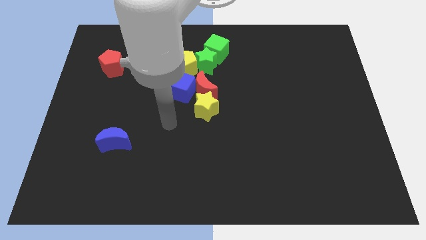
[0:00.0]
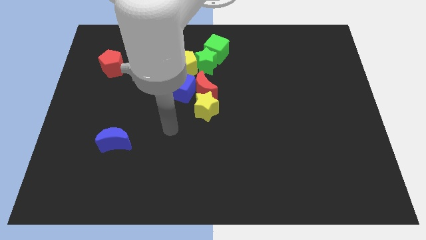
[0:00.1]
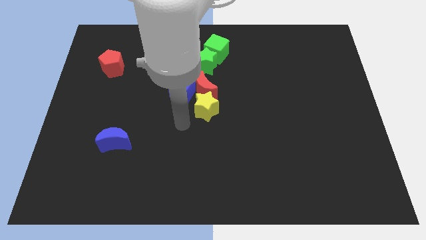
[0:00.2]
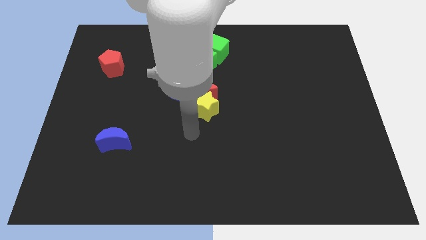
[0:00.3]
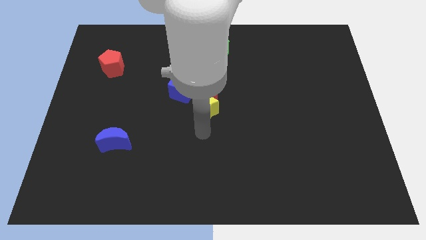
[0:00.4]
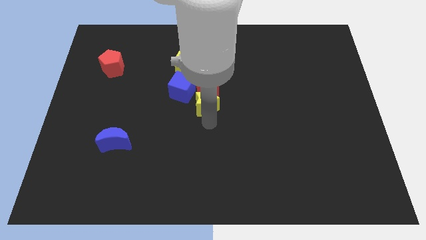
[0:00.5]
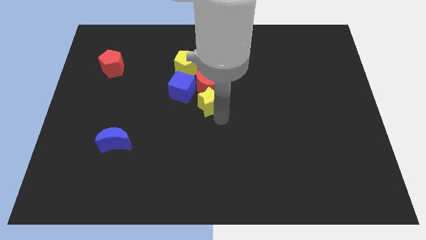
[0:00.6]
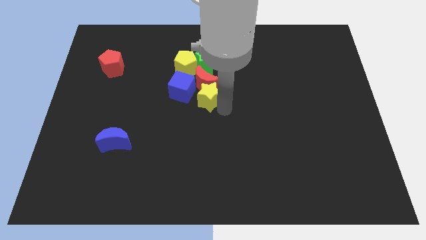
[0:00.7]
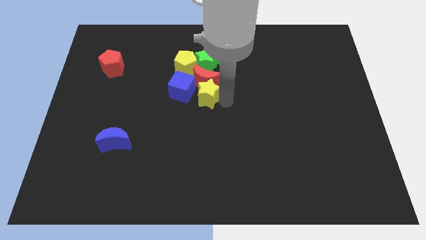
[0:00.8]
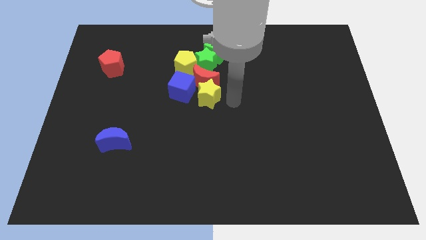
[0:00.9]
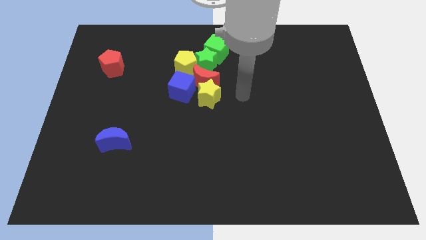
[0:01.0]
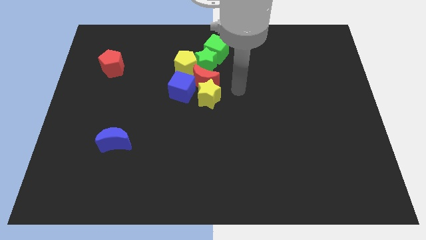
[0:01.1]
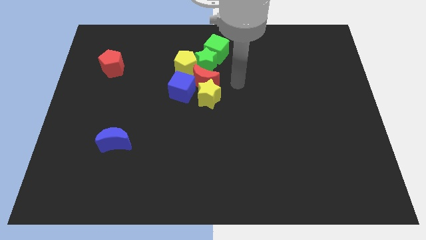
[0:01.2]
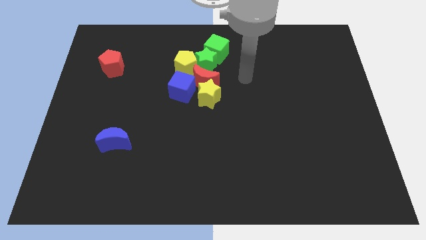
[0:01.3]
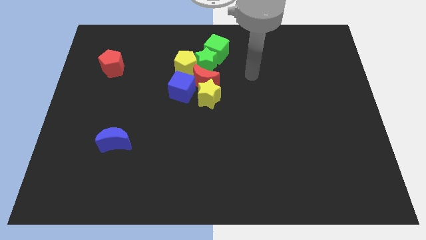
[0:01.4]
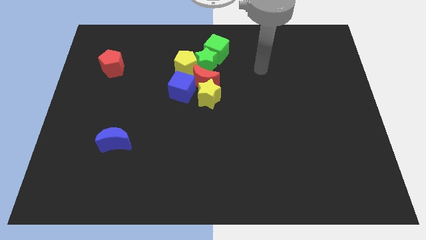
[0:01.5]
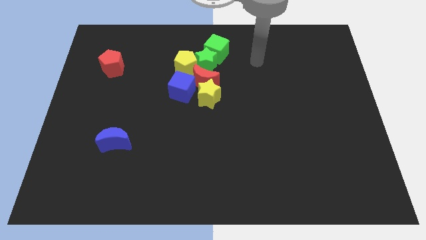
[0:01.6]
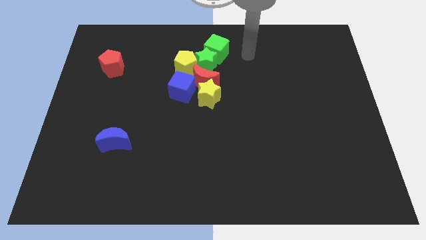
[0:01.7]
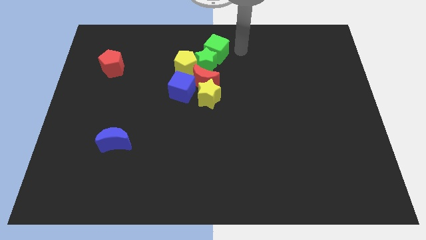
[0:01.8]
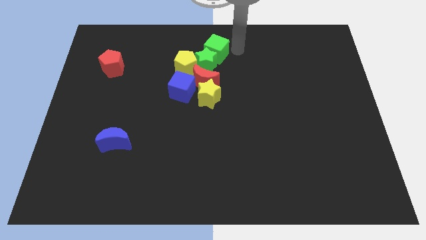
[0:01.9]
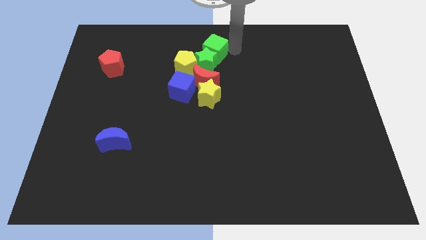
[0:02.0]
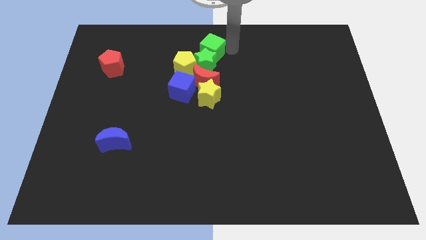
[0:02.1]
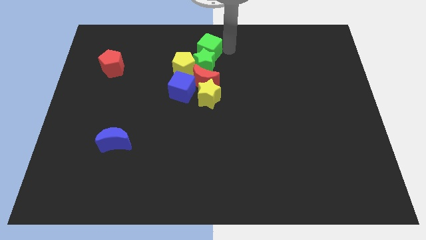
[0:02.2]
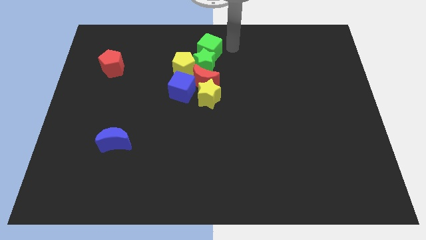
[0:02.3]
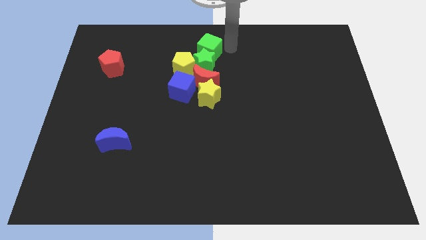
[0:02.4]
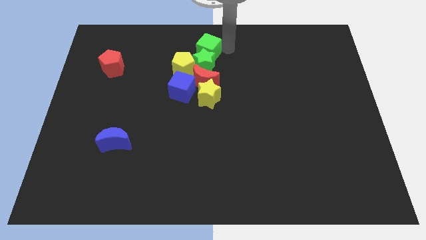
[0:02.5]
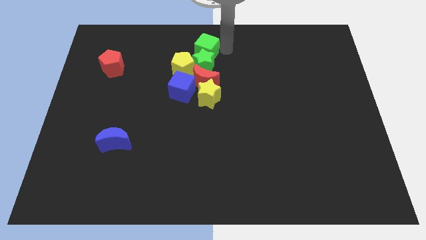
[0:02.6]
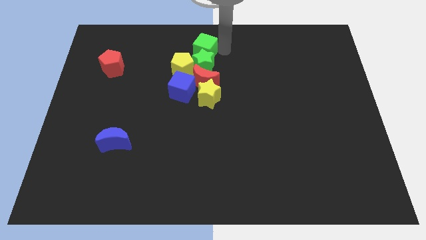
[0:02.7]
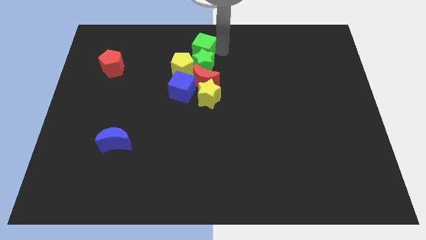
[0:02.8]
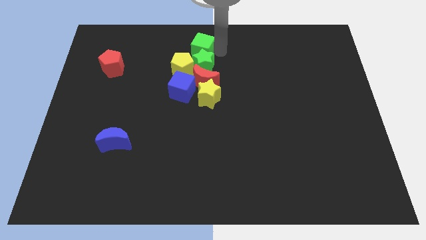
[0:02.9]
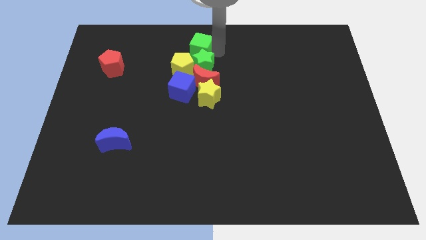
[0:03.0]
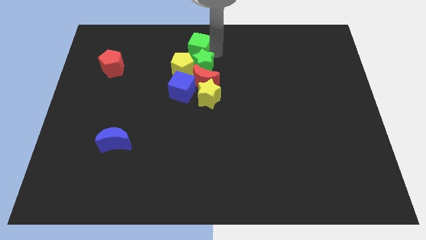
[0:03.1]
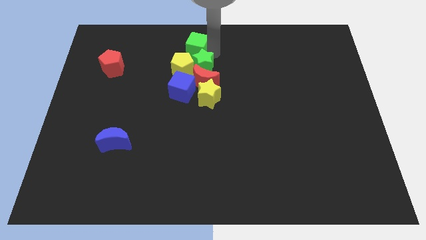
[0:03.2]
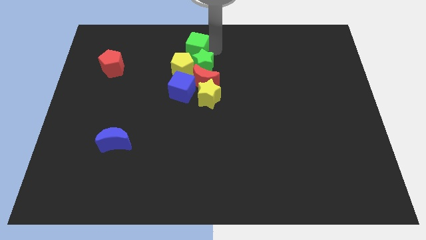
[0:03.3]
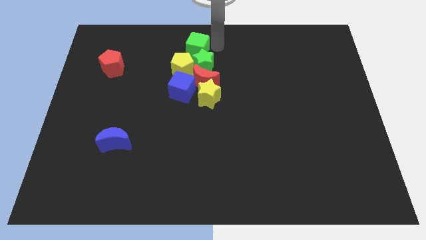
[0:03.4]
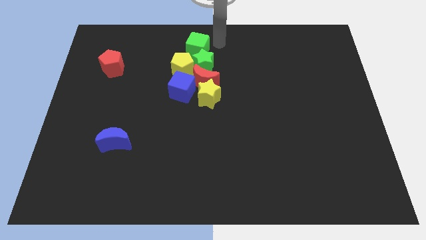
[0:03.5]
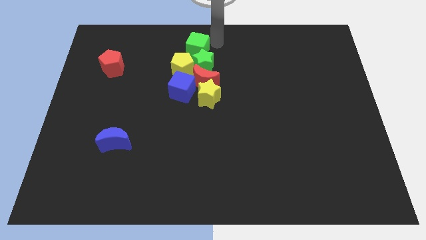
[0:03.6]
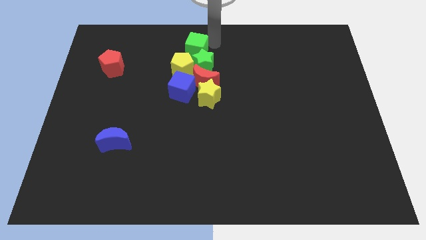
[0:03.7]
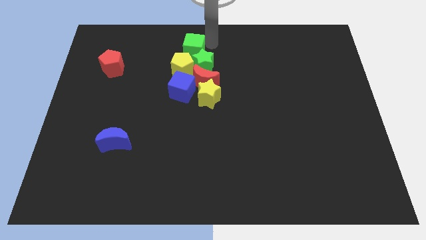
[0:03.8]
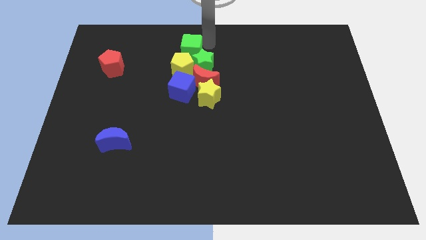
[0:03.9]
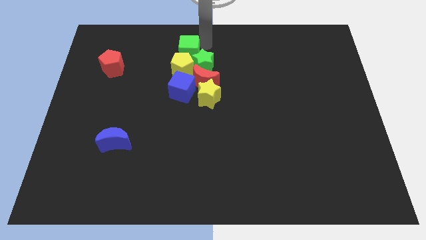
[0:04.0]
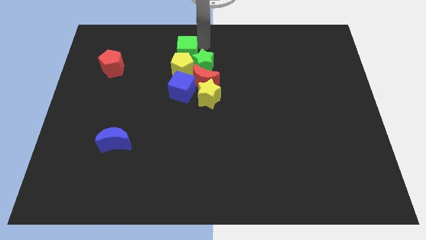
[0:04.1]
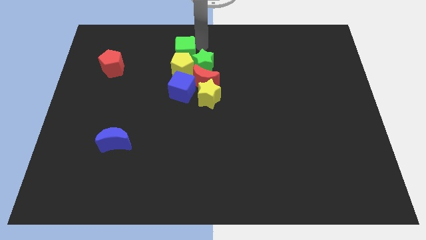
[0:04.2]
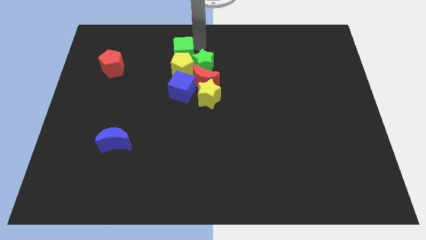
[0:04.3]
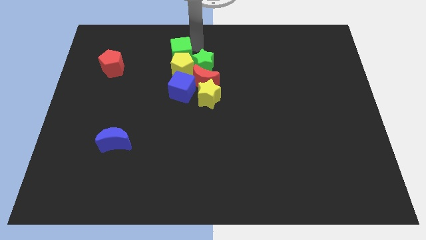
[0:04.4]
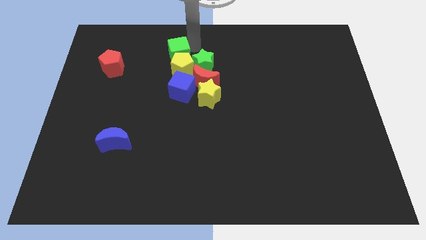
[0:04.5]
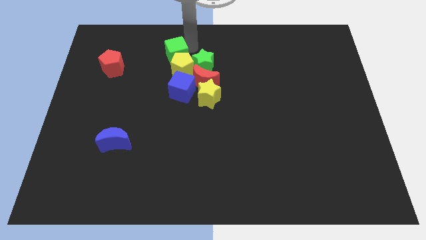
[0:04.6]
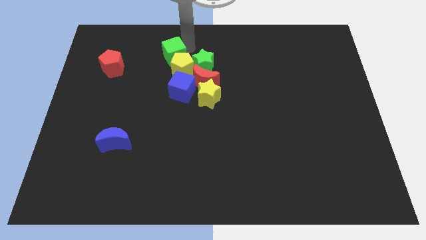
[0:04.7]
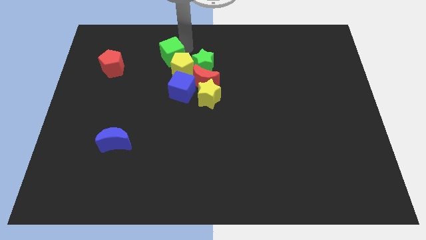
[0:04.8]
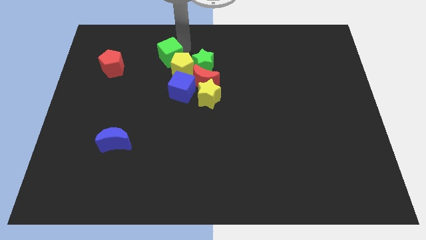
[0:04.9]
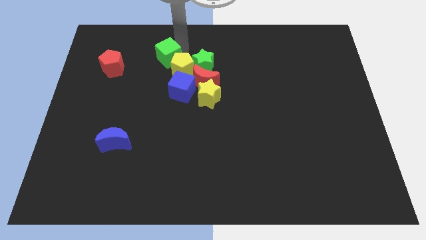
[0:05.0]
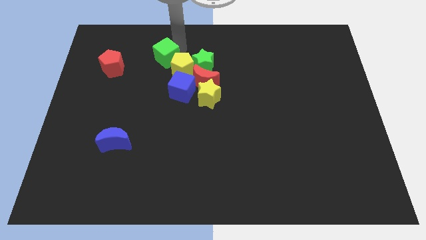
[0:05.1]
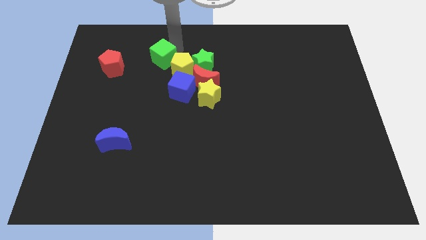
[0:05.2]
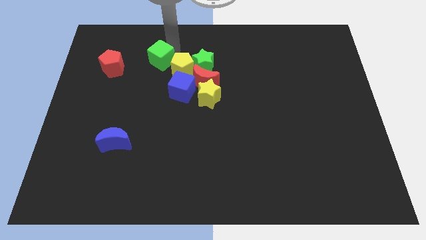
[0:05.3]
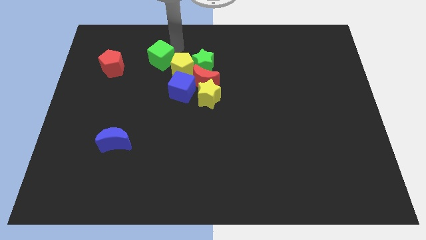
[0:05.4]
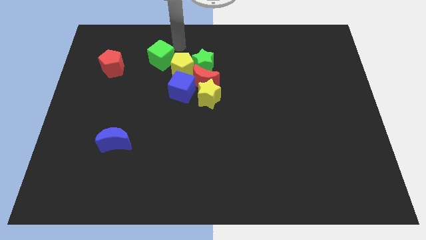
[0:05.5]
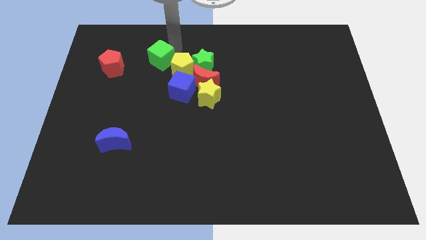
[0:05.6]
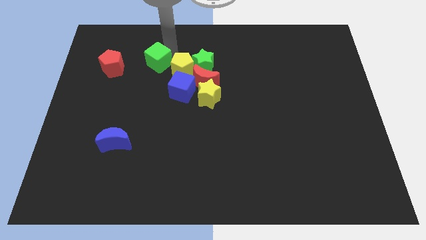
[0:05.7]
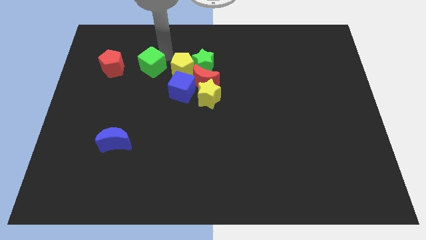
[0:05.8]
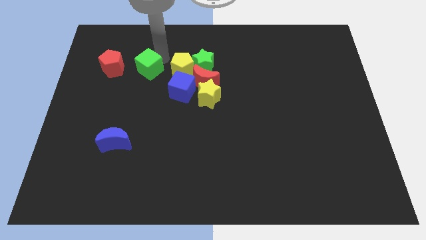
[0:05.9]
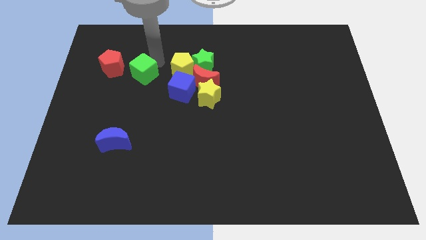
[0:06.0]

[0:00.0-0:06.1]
put the green cube to the bottom right of the red pentagon
